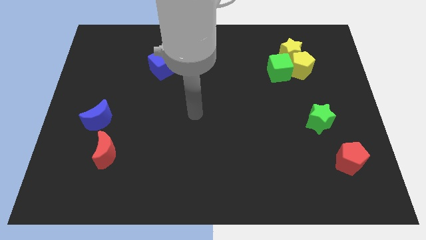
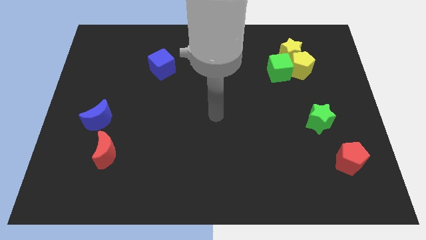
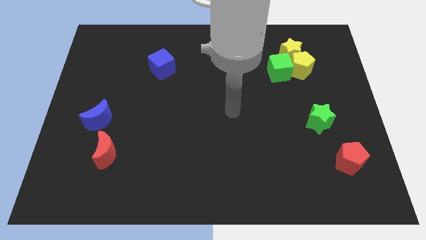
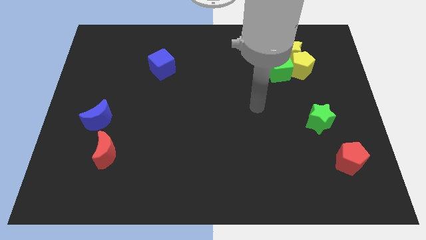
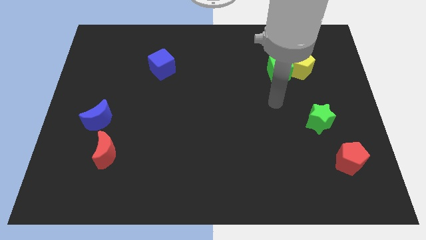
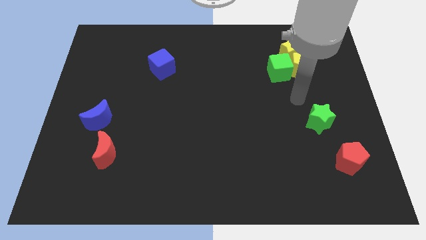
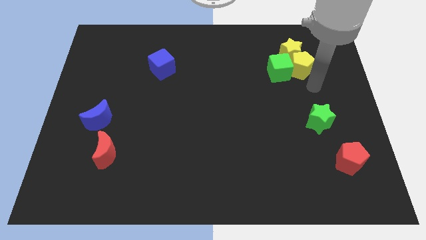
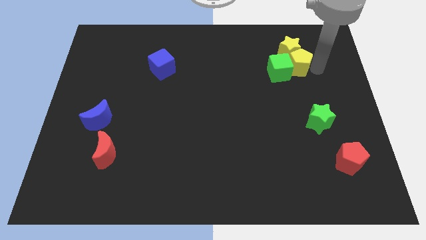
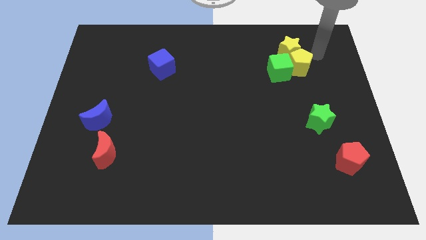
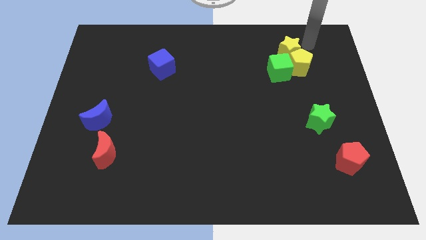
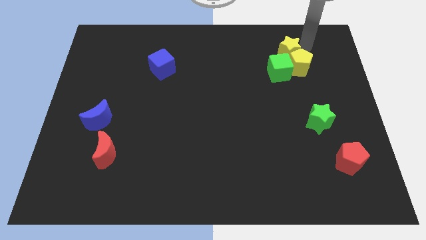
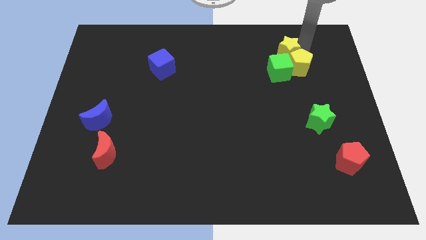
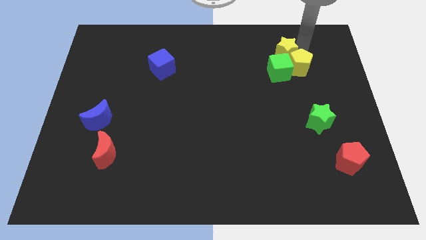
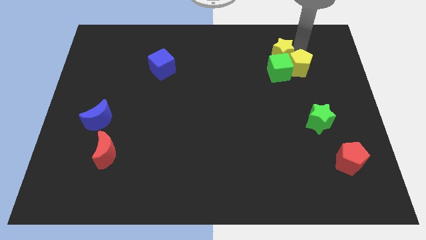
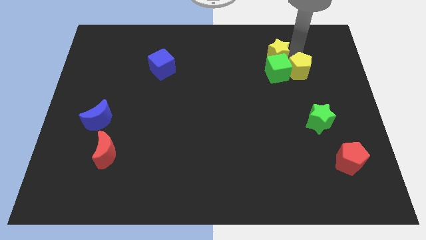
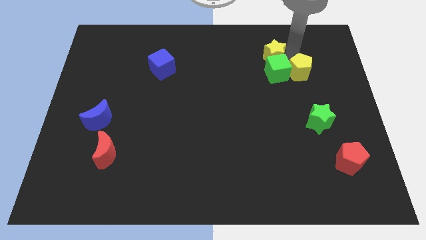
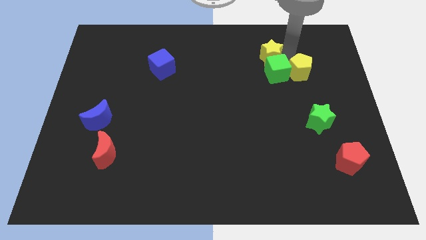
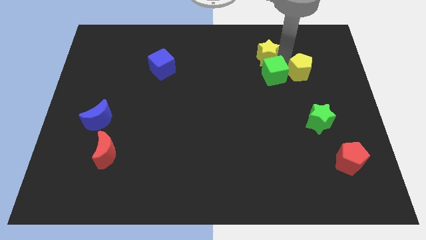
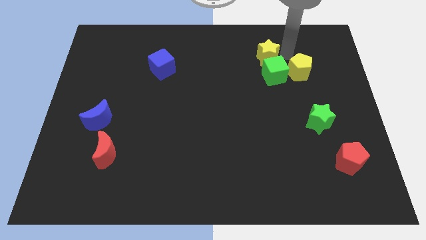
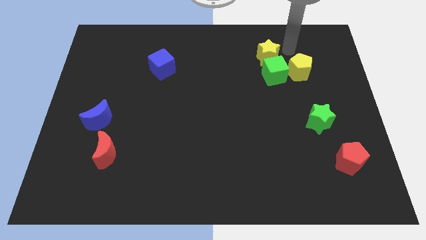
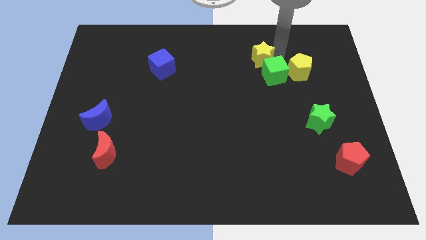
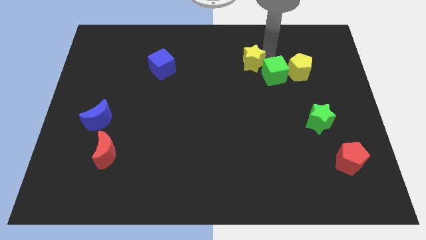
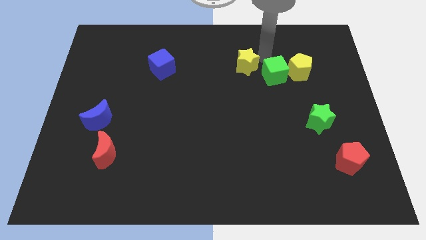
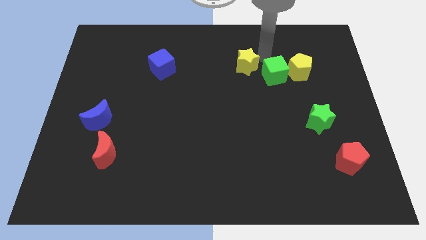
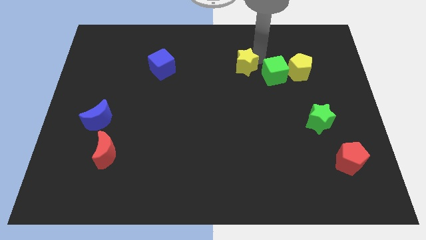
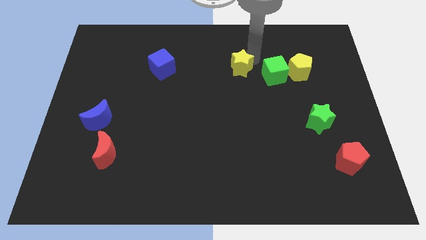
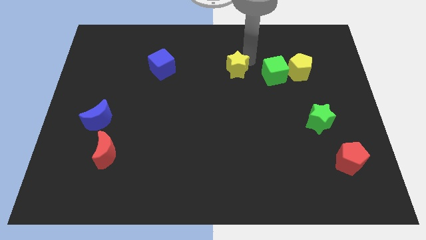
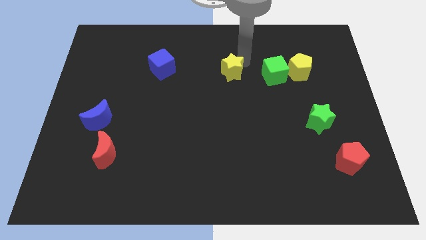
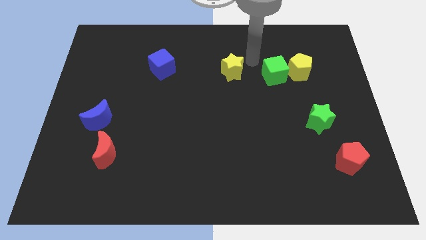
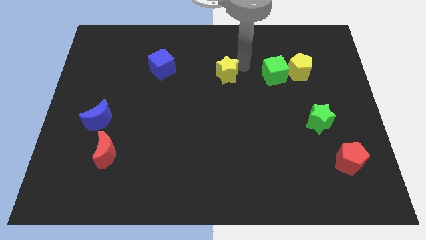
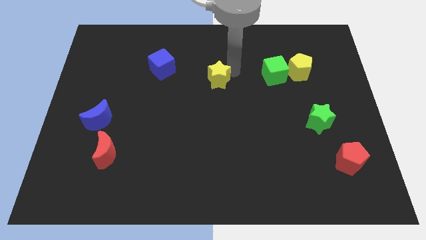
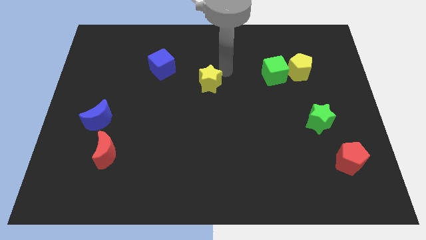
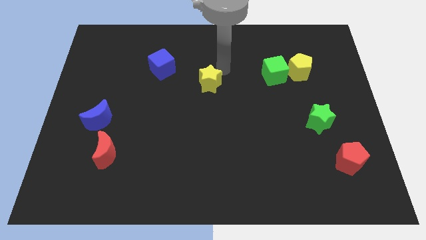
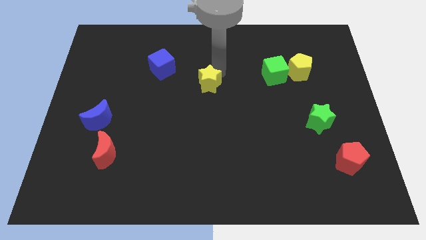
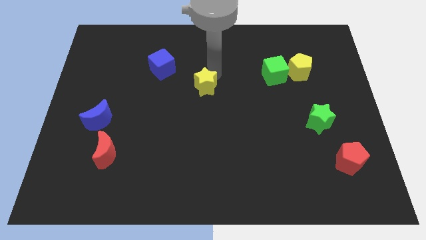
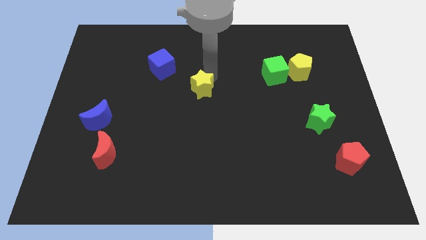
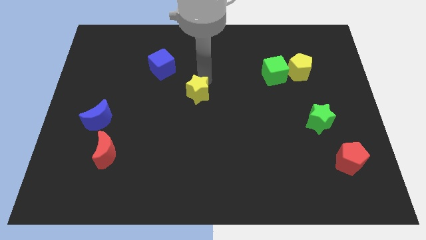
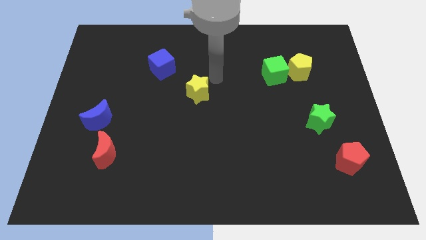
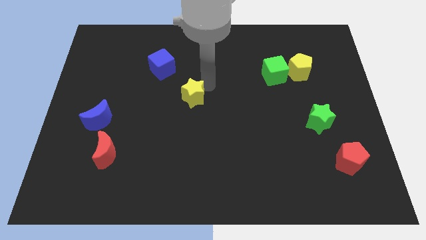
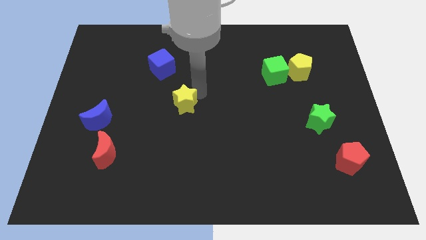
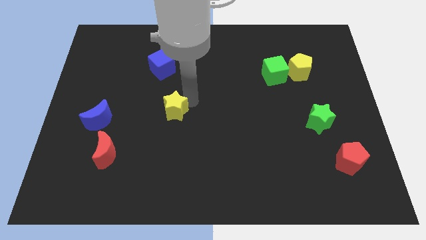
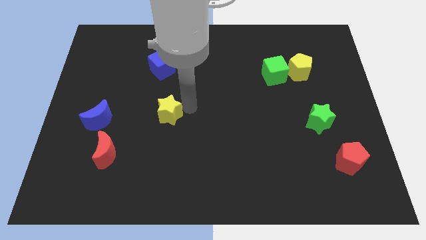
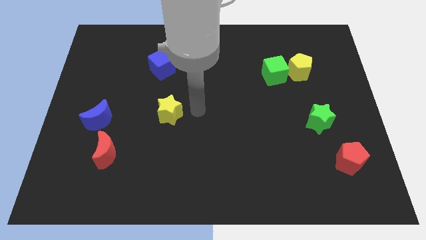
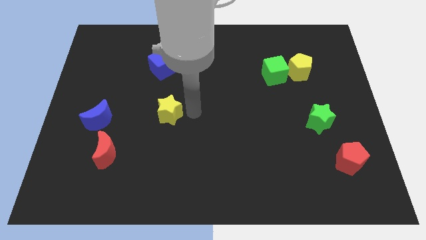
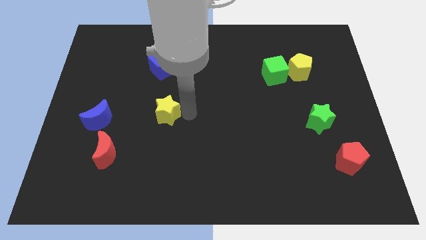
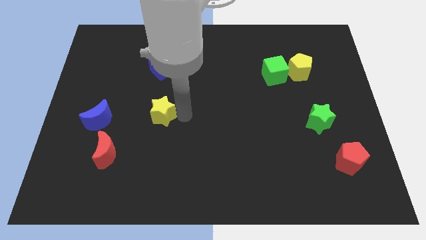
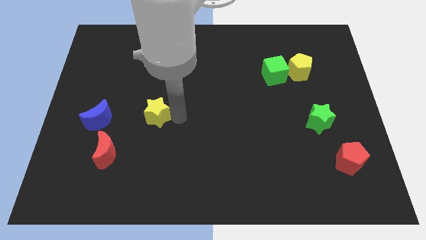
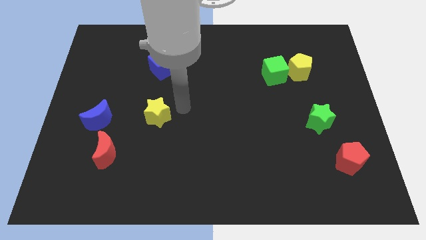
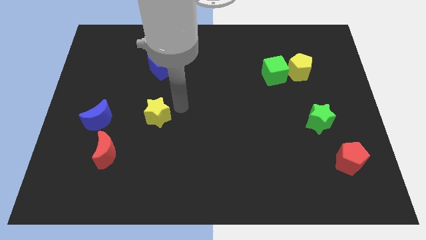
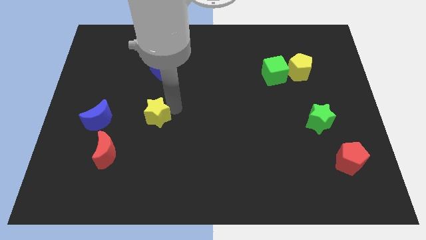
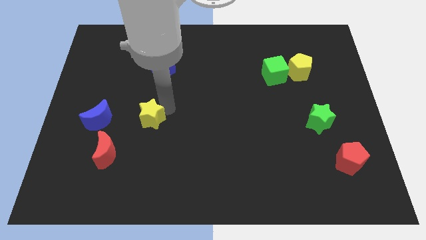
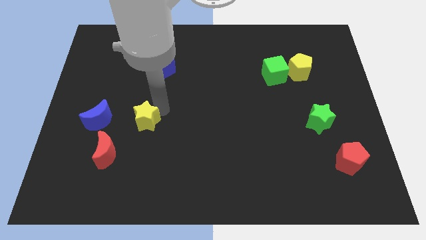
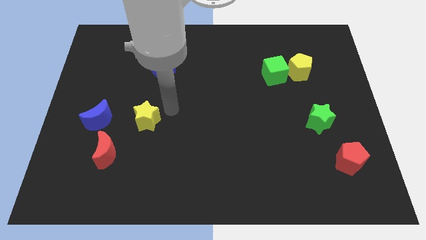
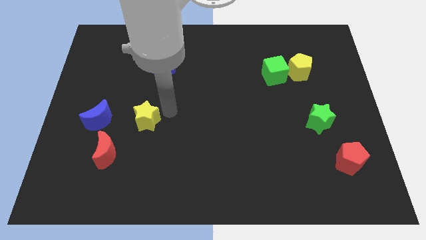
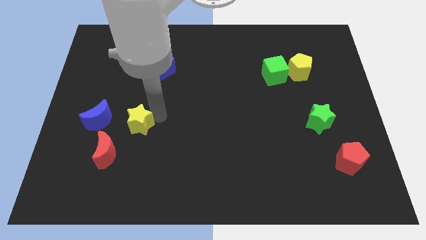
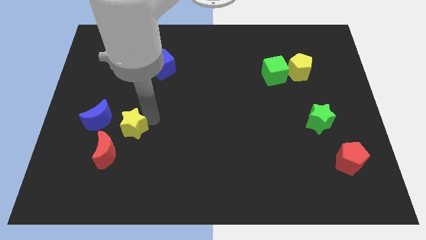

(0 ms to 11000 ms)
put the yellow star to the bottom right side of the blue moon

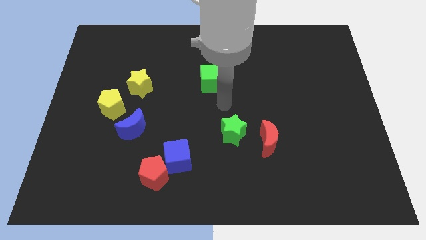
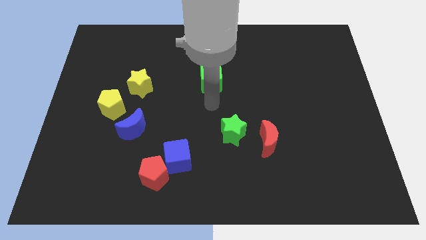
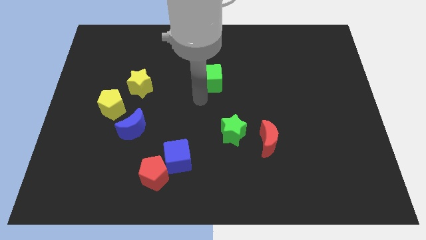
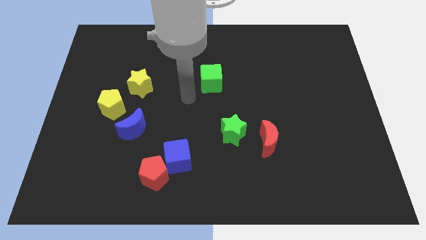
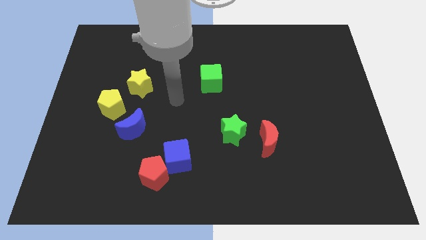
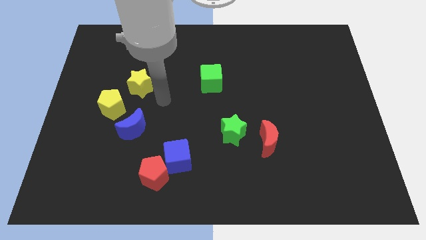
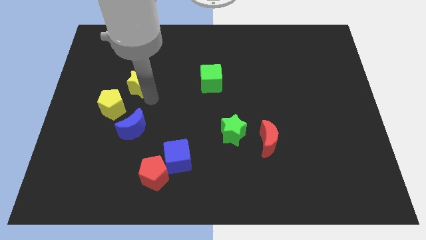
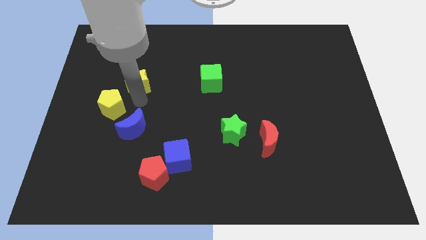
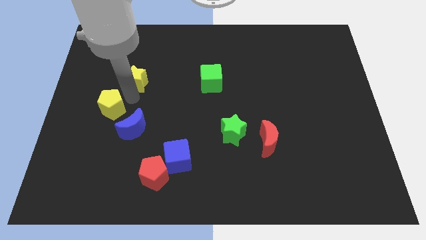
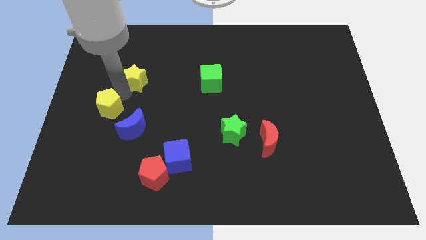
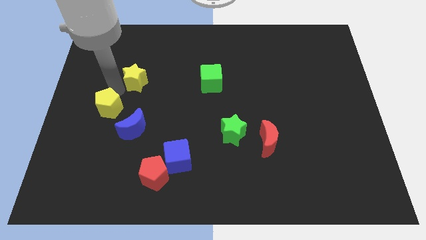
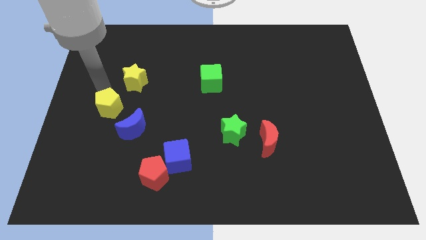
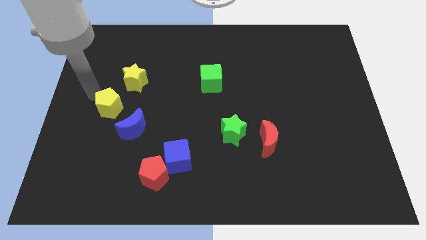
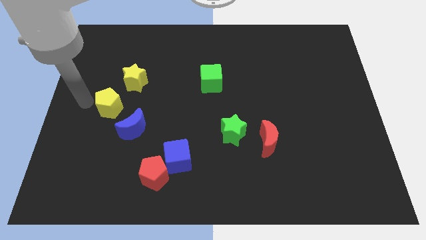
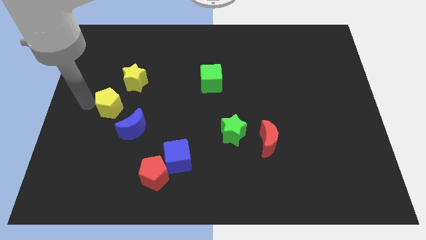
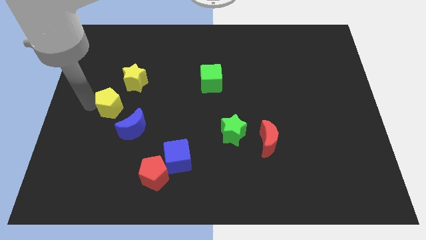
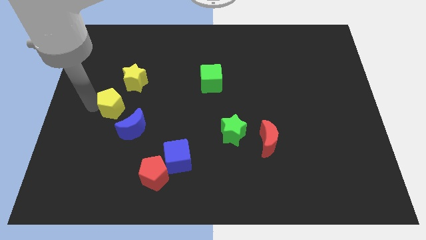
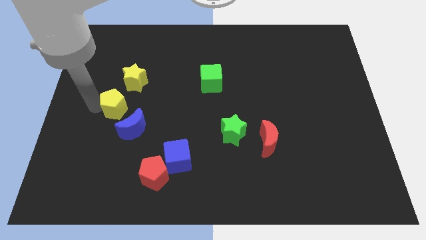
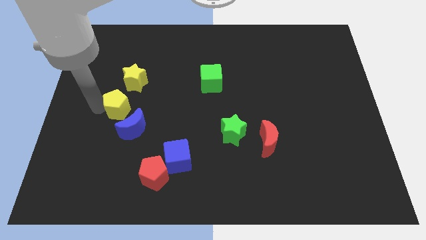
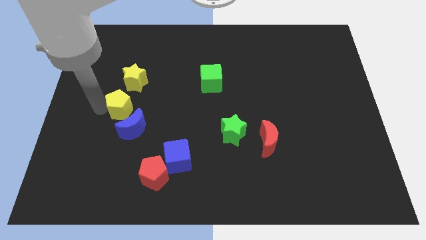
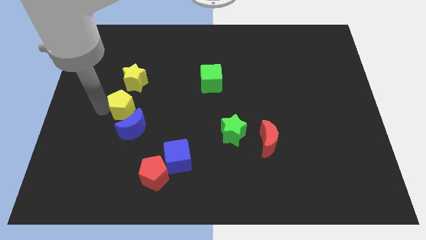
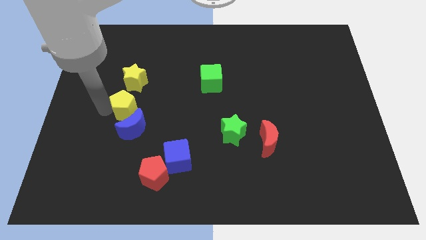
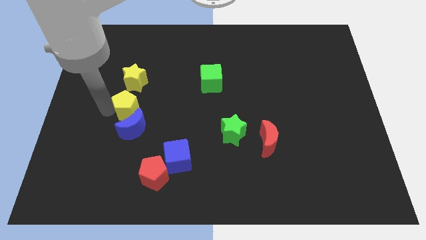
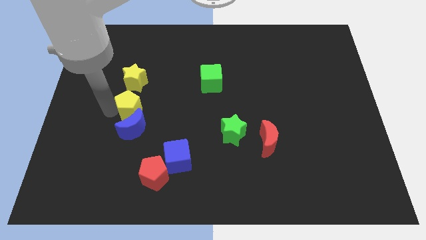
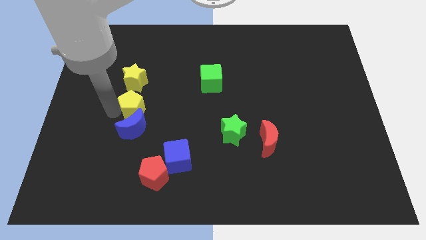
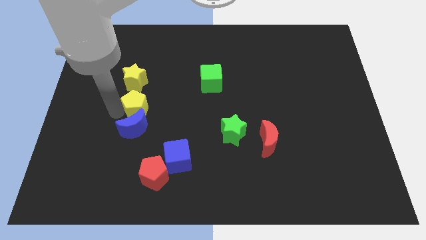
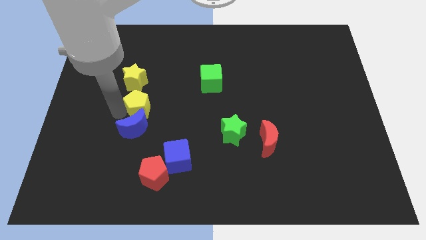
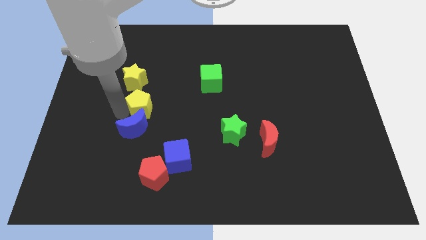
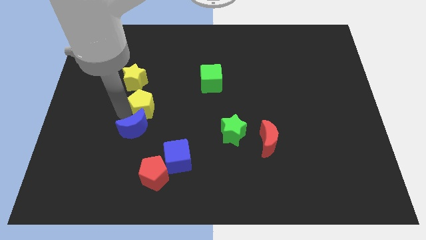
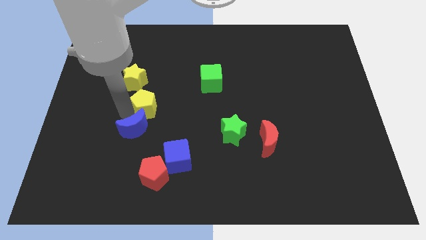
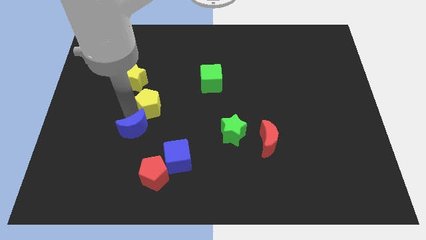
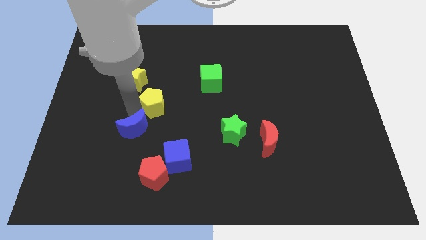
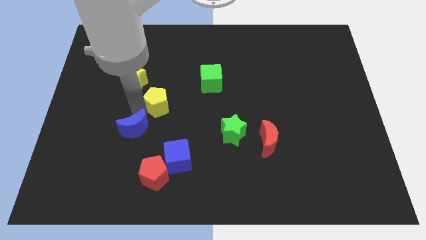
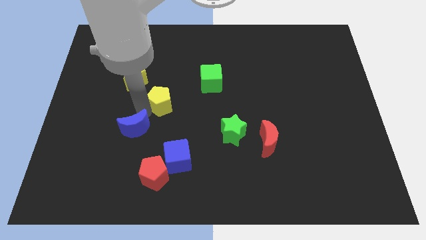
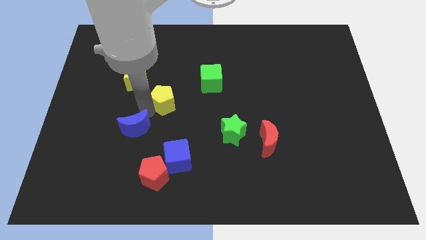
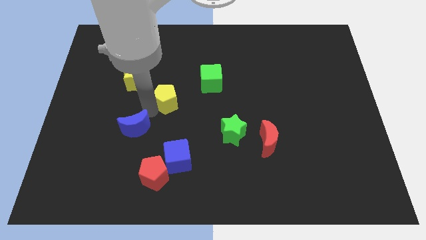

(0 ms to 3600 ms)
put the yellow pentagon to the bottom left of the green cube
